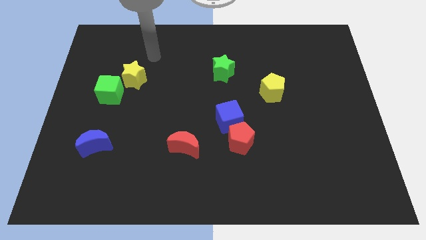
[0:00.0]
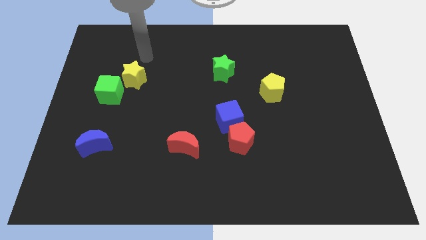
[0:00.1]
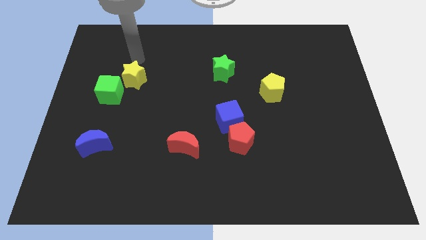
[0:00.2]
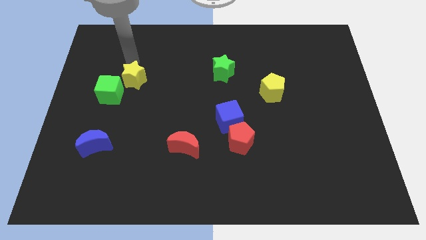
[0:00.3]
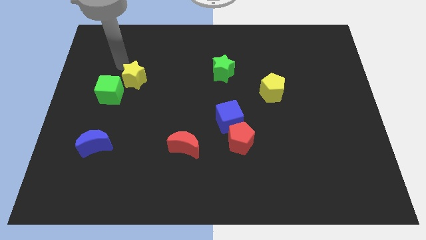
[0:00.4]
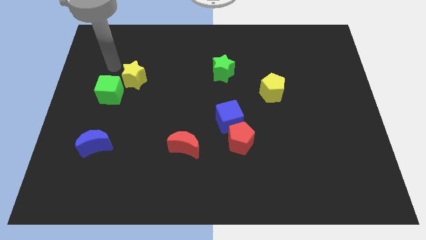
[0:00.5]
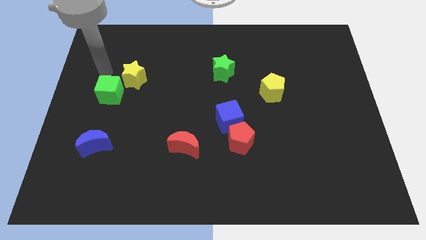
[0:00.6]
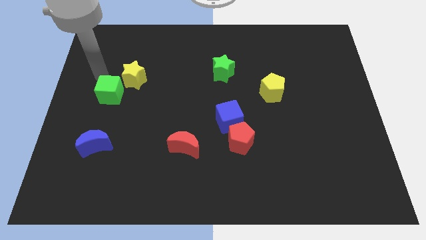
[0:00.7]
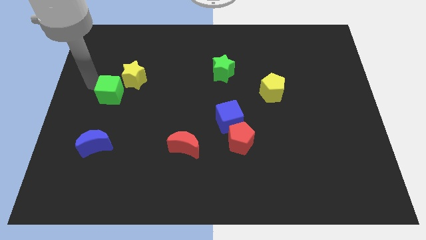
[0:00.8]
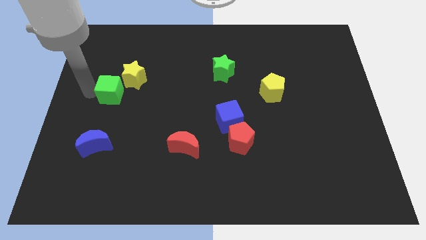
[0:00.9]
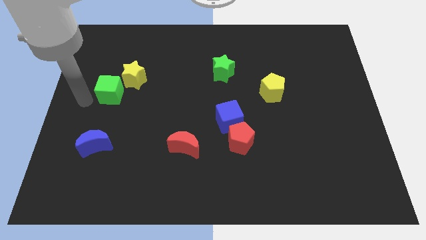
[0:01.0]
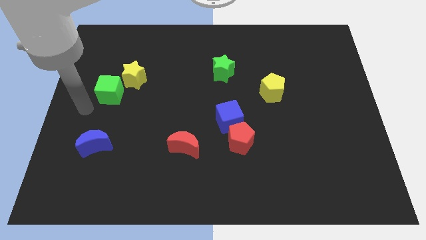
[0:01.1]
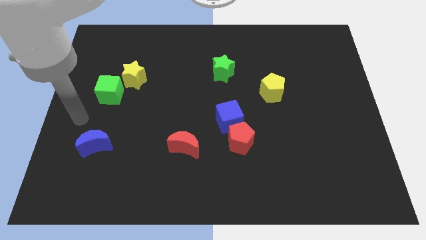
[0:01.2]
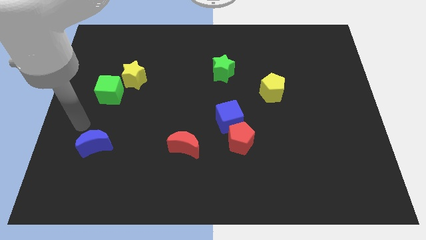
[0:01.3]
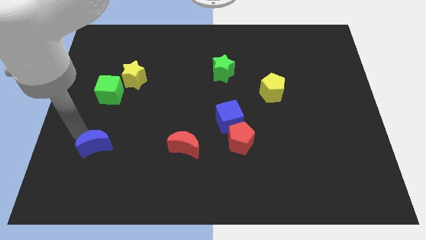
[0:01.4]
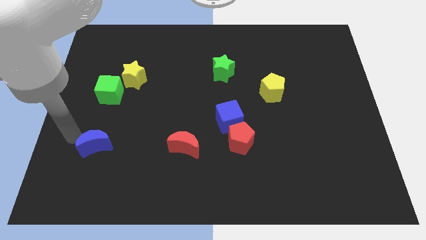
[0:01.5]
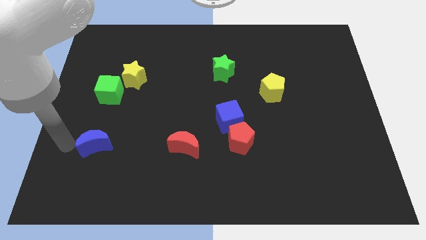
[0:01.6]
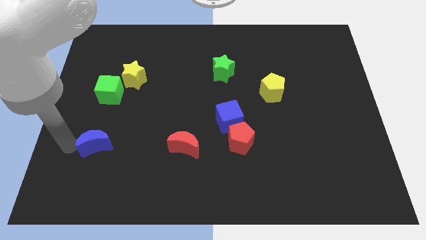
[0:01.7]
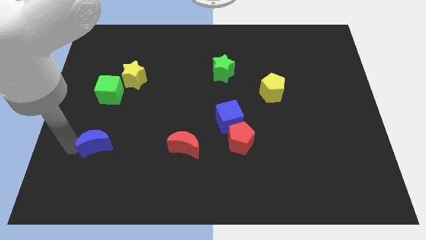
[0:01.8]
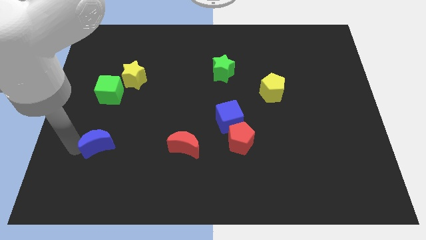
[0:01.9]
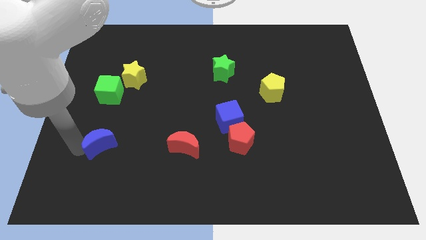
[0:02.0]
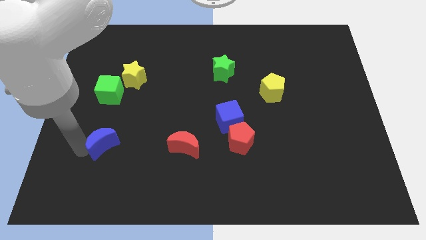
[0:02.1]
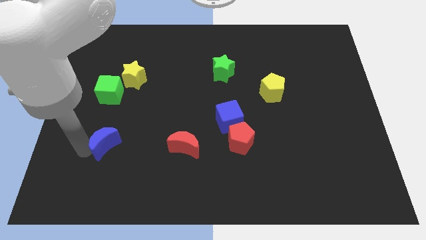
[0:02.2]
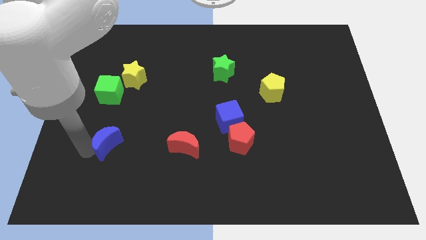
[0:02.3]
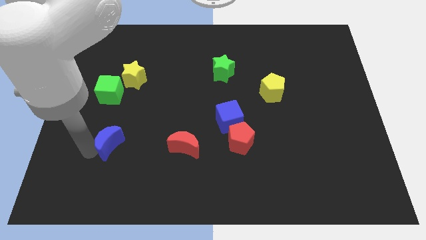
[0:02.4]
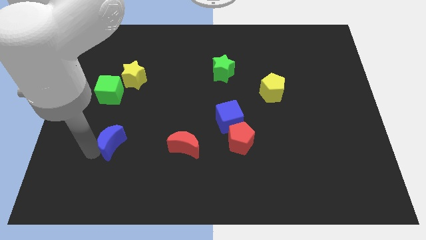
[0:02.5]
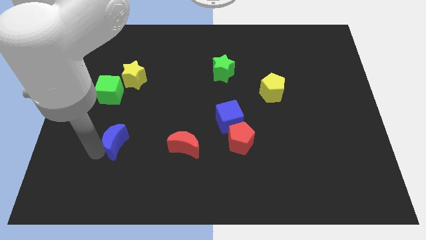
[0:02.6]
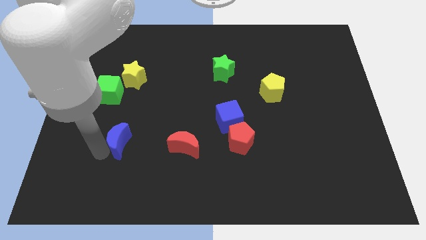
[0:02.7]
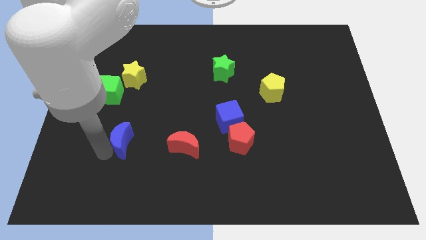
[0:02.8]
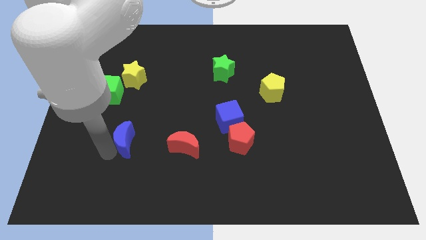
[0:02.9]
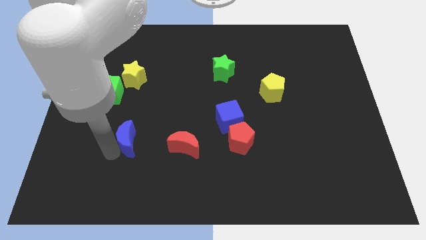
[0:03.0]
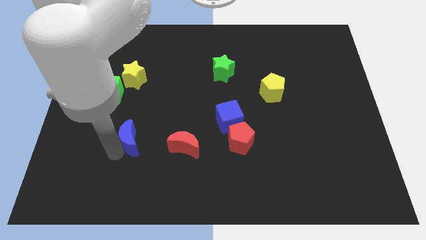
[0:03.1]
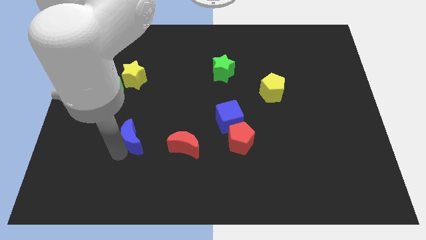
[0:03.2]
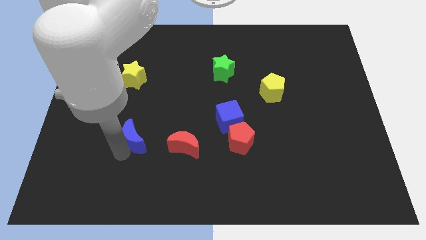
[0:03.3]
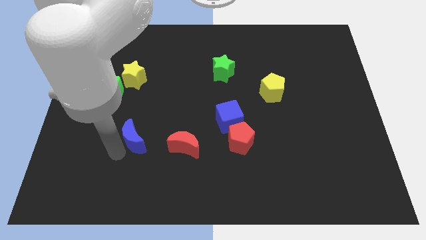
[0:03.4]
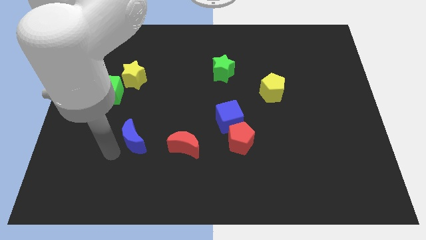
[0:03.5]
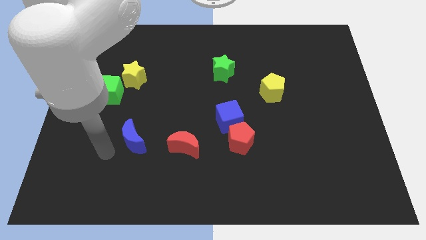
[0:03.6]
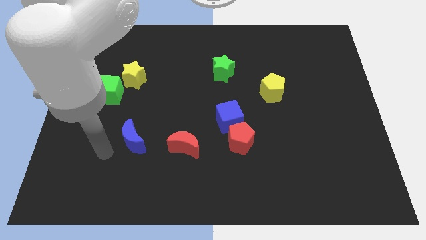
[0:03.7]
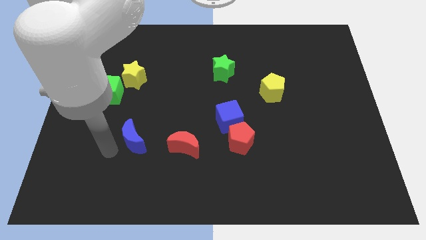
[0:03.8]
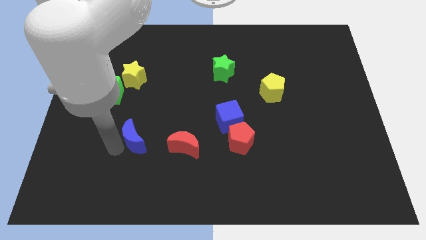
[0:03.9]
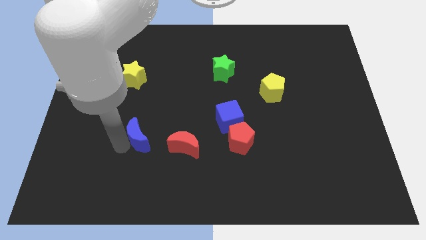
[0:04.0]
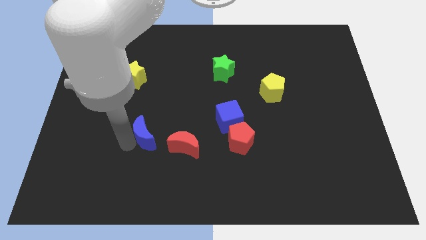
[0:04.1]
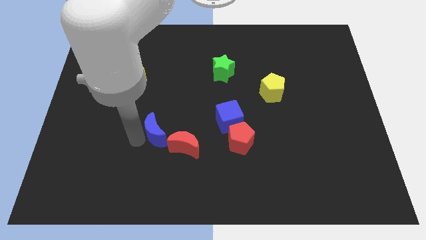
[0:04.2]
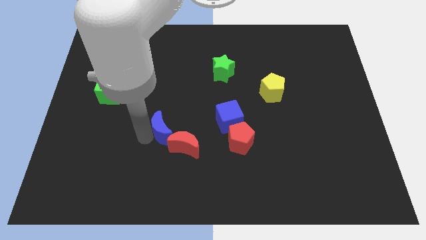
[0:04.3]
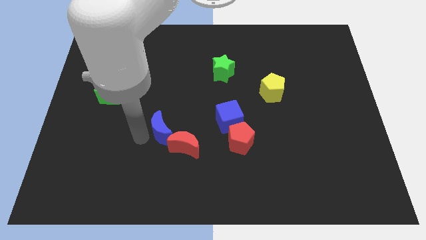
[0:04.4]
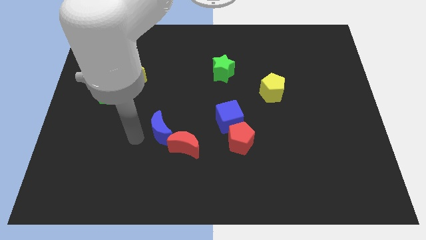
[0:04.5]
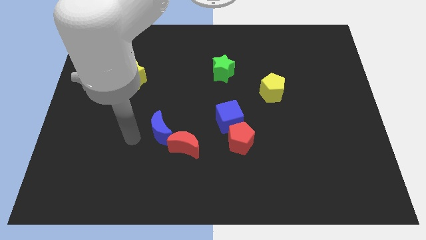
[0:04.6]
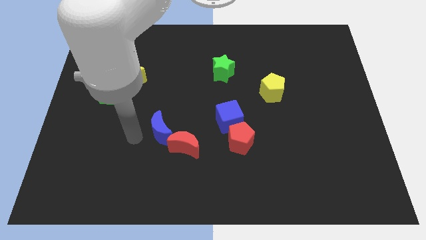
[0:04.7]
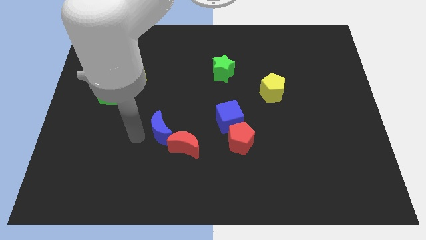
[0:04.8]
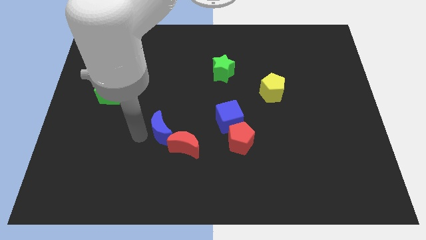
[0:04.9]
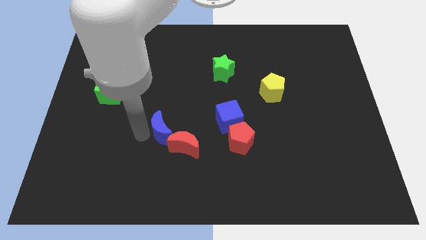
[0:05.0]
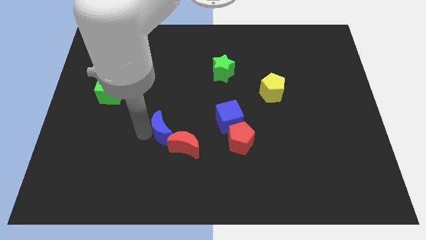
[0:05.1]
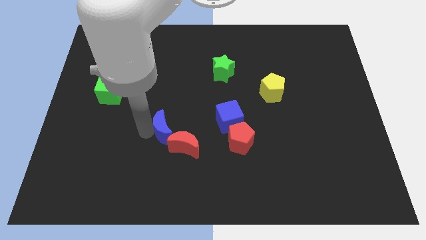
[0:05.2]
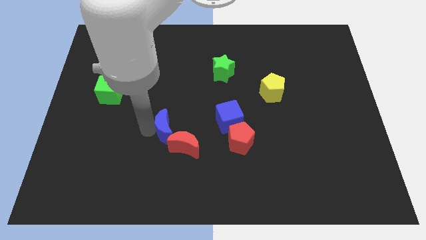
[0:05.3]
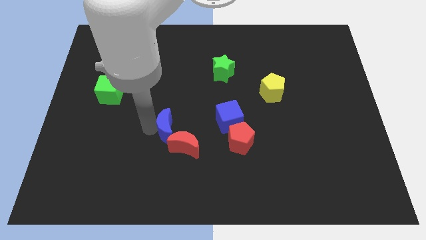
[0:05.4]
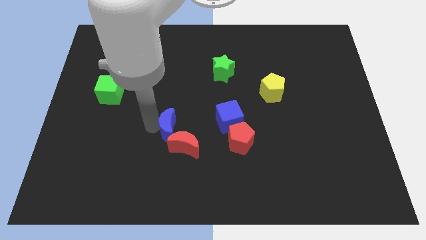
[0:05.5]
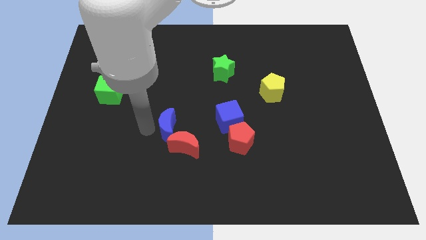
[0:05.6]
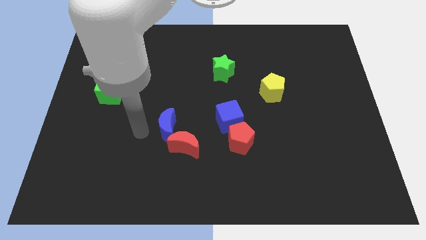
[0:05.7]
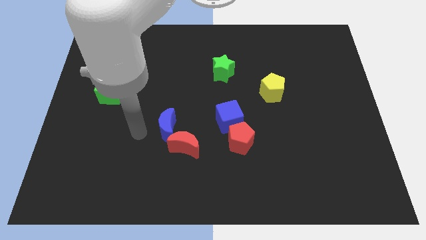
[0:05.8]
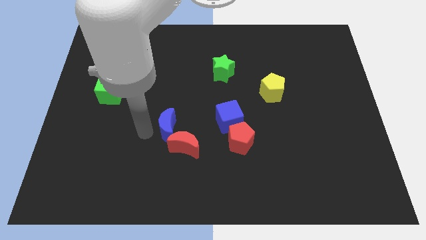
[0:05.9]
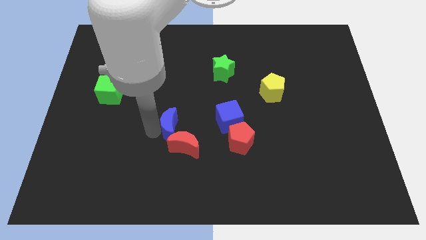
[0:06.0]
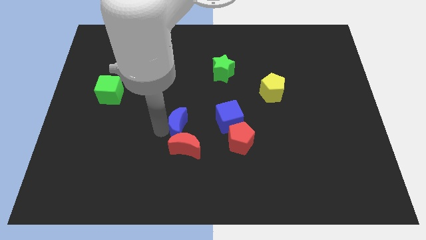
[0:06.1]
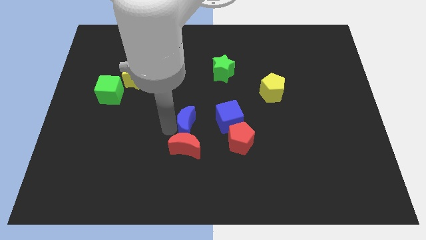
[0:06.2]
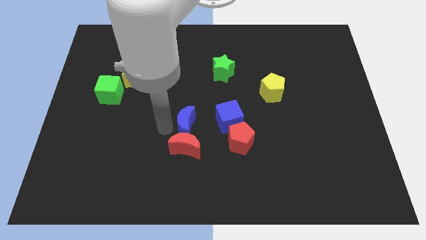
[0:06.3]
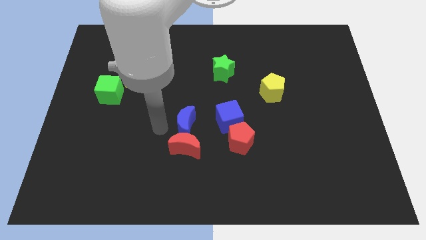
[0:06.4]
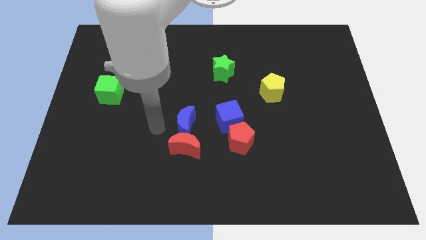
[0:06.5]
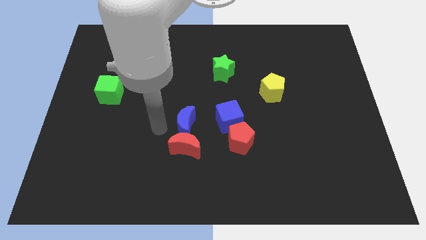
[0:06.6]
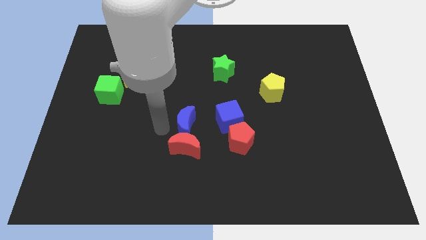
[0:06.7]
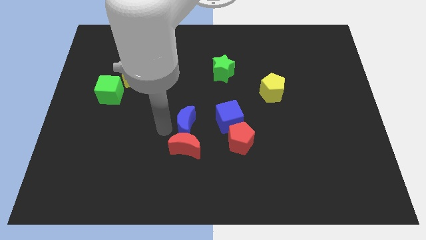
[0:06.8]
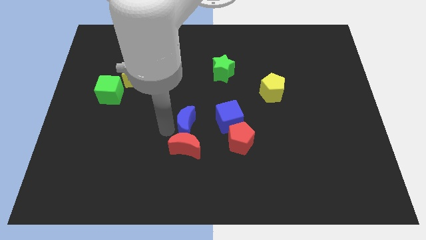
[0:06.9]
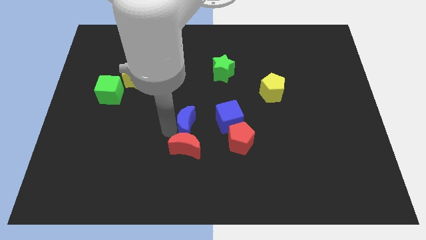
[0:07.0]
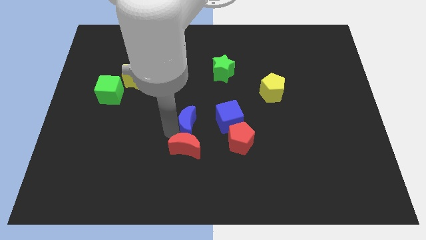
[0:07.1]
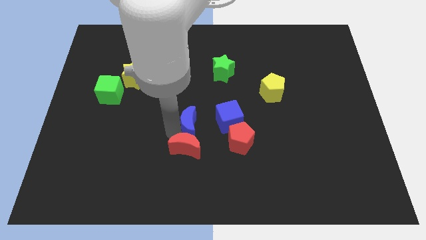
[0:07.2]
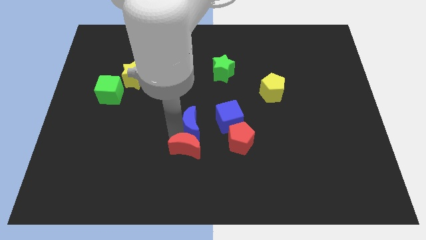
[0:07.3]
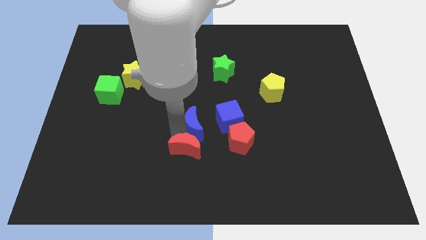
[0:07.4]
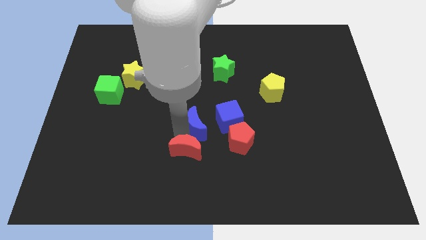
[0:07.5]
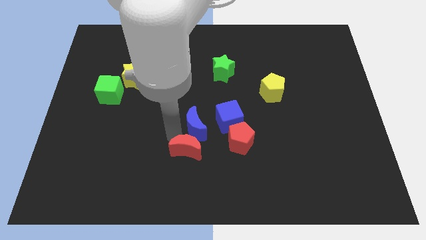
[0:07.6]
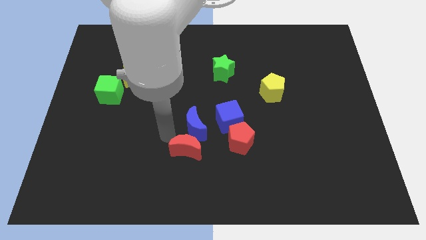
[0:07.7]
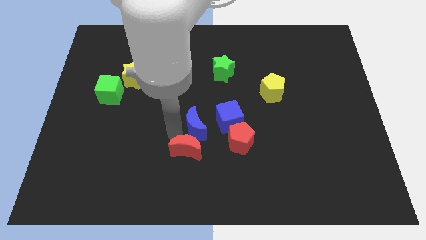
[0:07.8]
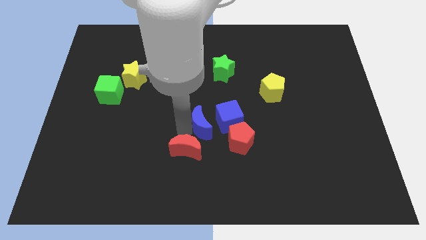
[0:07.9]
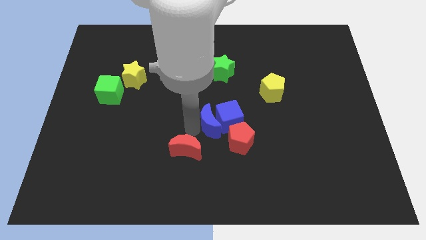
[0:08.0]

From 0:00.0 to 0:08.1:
move the blue moon next to the blue cube
